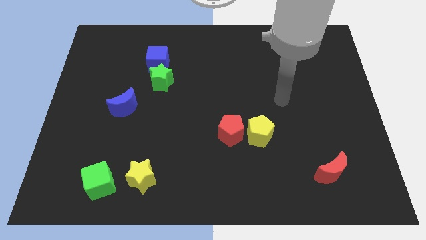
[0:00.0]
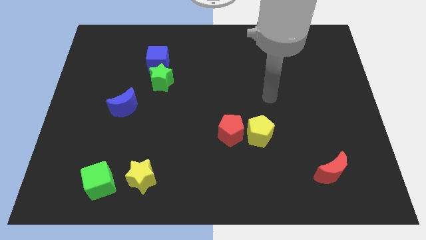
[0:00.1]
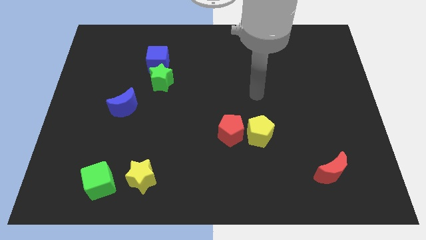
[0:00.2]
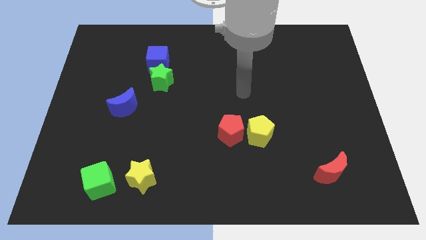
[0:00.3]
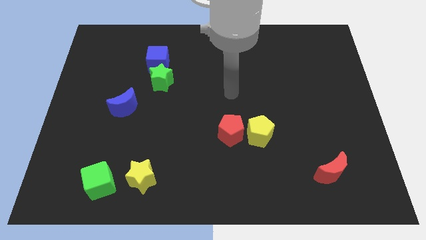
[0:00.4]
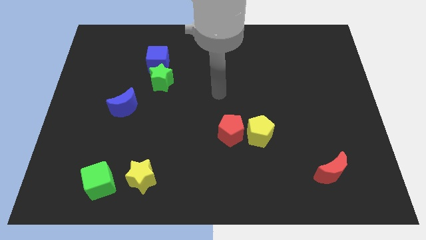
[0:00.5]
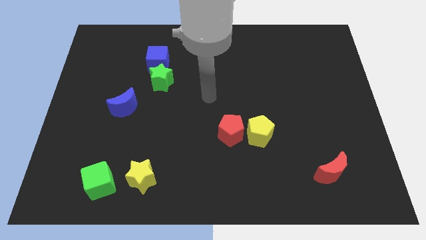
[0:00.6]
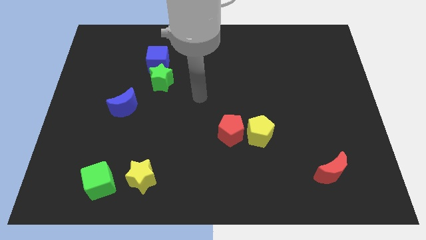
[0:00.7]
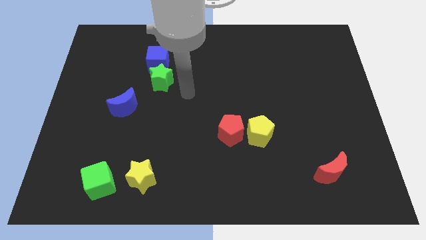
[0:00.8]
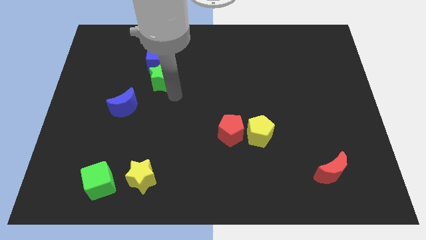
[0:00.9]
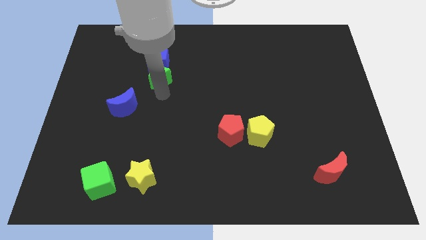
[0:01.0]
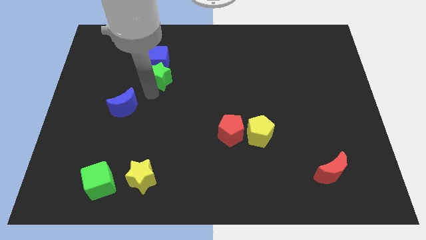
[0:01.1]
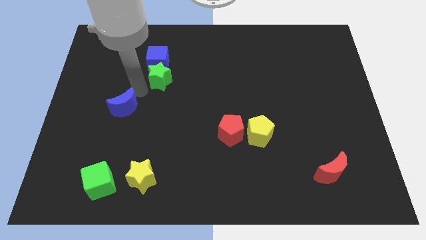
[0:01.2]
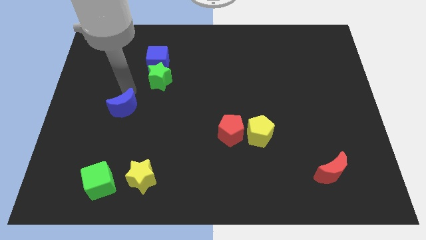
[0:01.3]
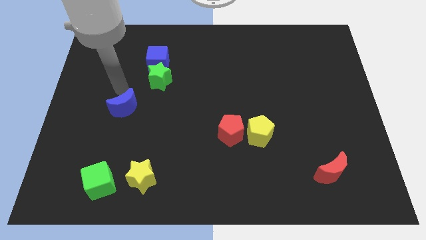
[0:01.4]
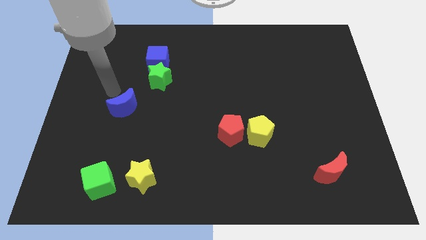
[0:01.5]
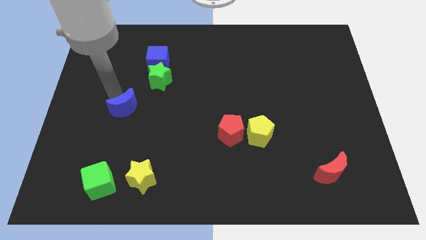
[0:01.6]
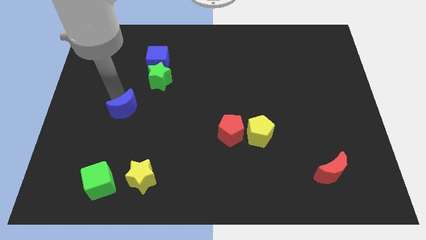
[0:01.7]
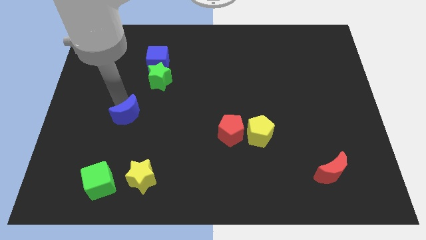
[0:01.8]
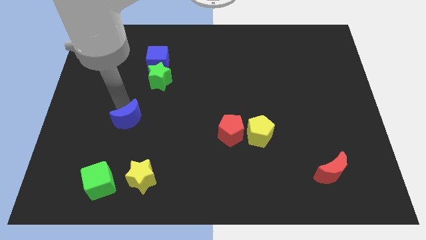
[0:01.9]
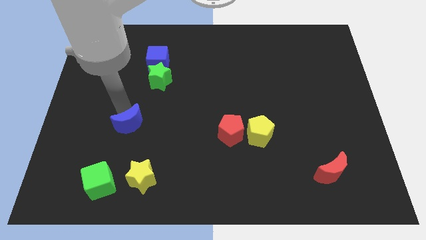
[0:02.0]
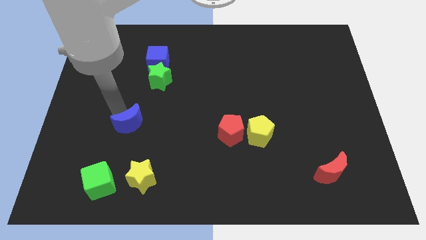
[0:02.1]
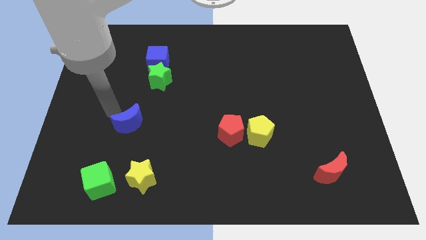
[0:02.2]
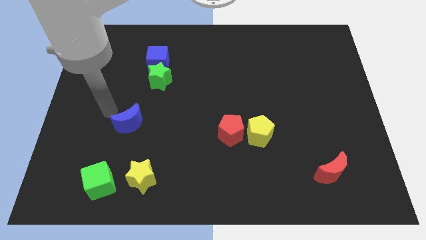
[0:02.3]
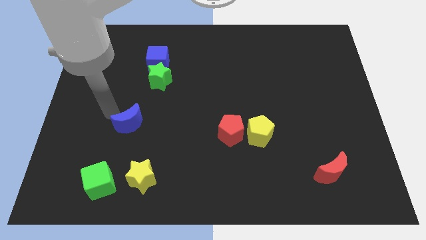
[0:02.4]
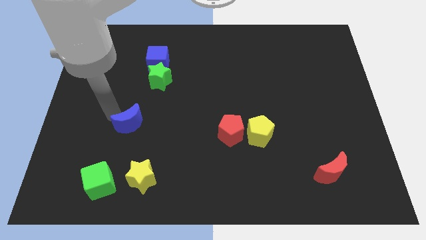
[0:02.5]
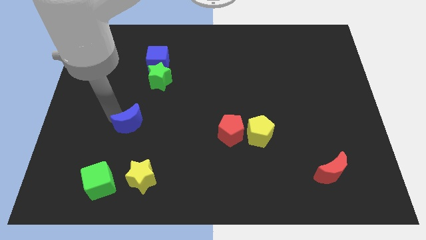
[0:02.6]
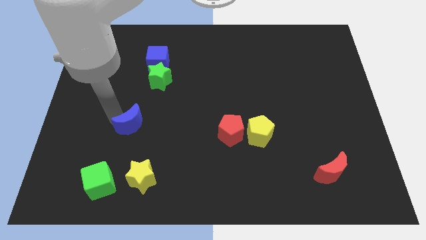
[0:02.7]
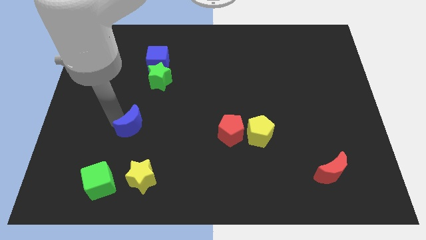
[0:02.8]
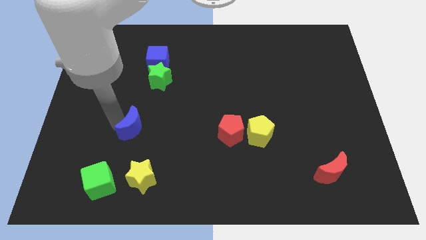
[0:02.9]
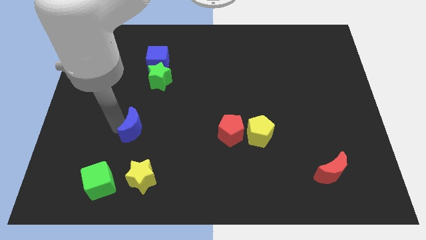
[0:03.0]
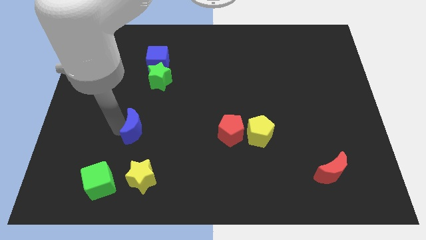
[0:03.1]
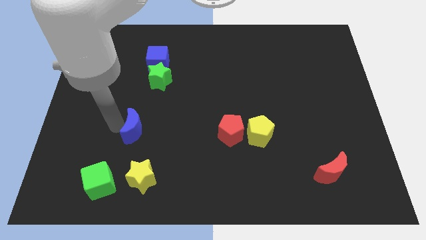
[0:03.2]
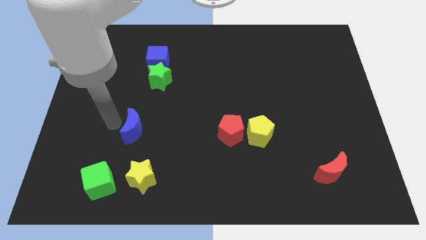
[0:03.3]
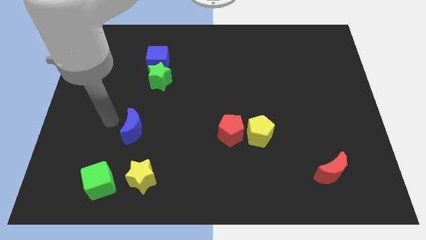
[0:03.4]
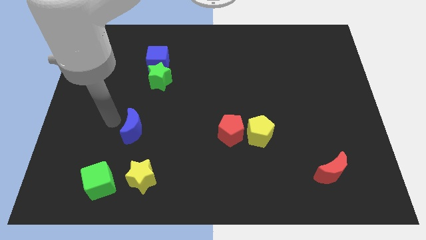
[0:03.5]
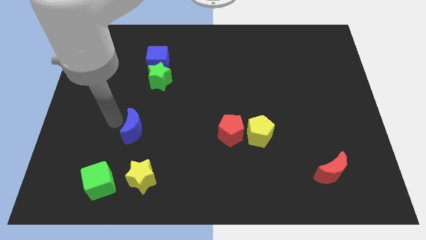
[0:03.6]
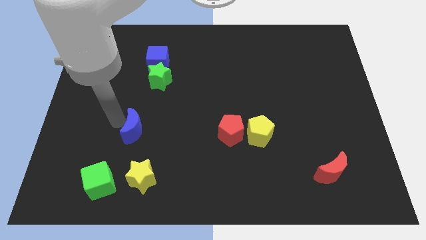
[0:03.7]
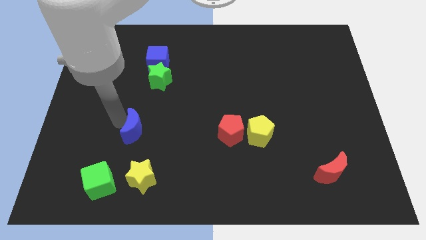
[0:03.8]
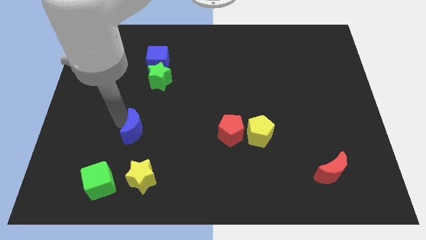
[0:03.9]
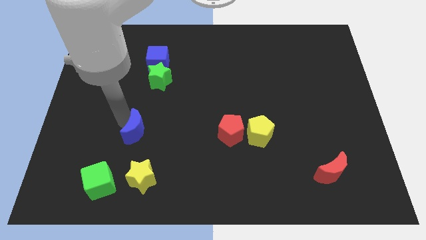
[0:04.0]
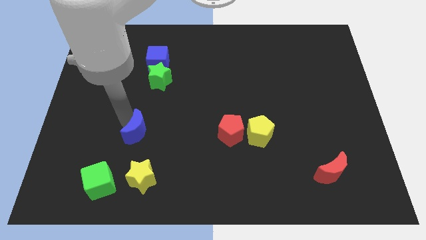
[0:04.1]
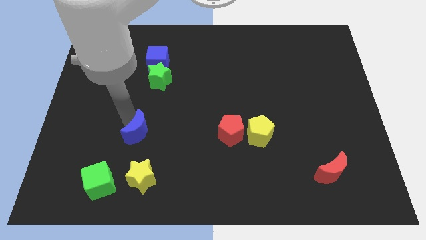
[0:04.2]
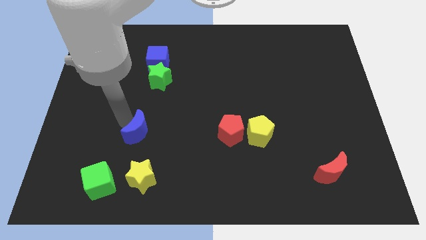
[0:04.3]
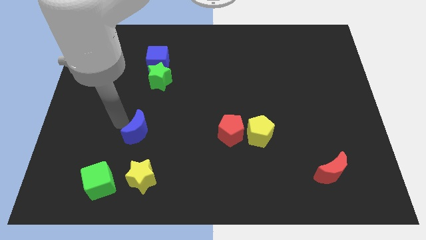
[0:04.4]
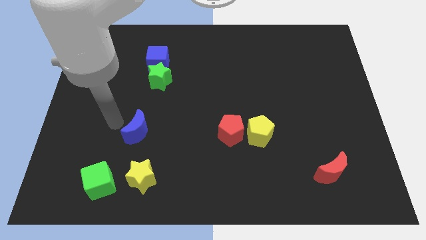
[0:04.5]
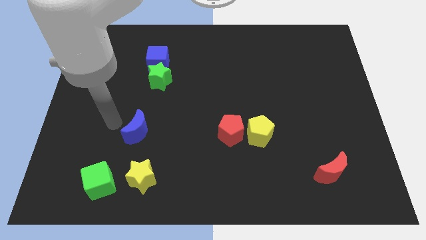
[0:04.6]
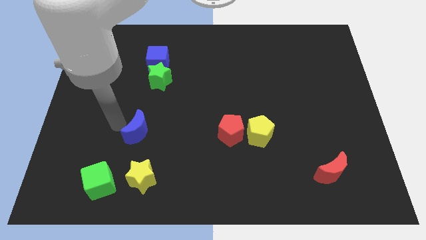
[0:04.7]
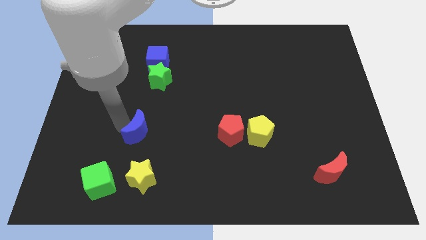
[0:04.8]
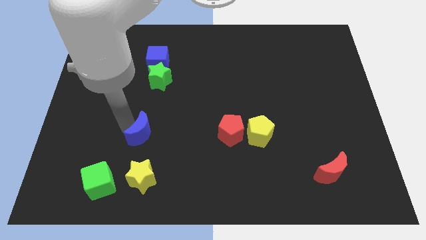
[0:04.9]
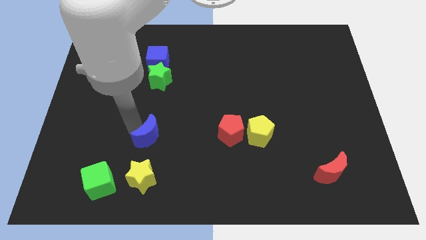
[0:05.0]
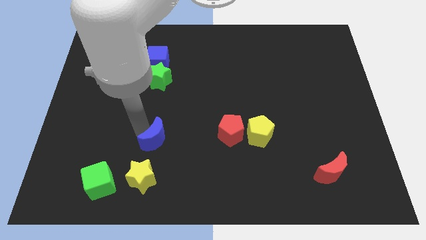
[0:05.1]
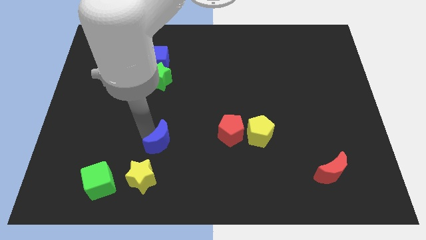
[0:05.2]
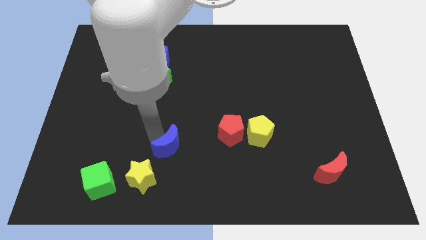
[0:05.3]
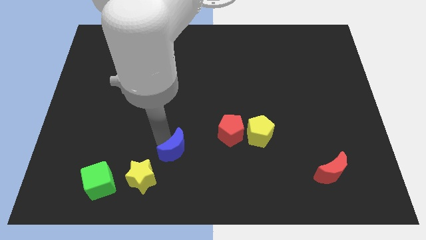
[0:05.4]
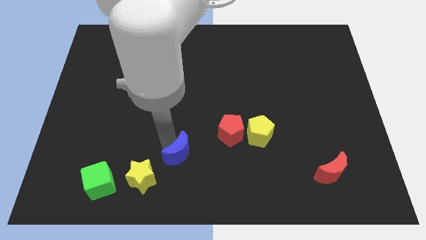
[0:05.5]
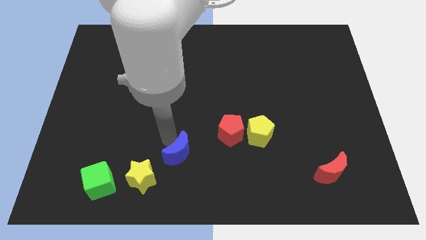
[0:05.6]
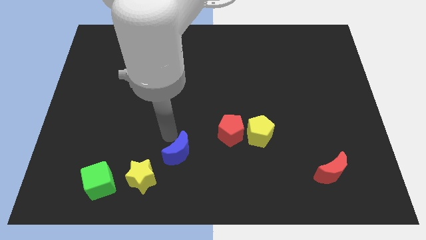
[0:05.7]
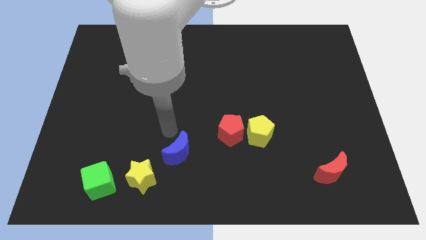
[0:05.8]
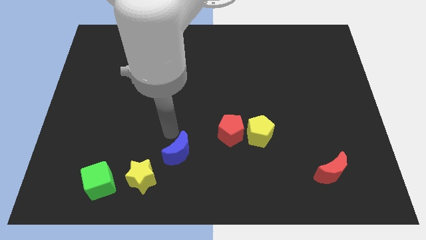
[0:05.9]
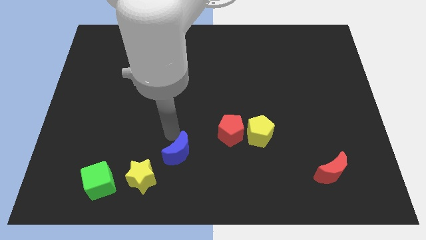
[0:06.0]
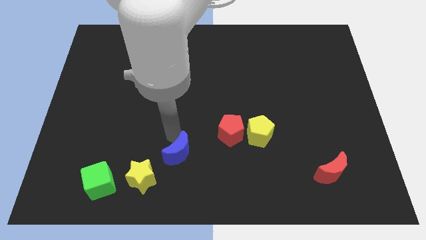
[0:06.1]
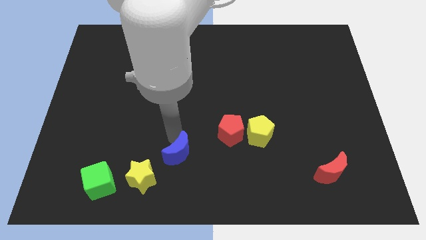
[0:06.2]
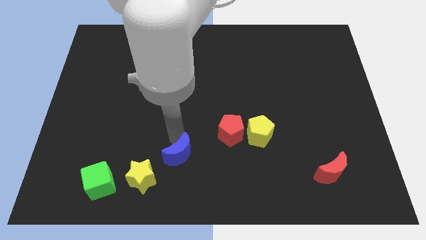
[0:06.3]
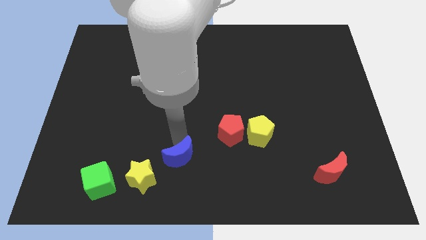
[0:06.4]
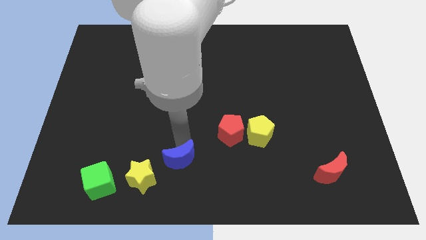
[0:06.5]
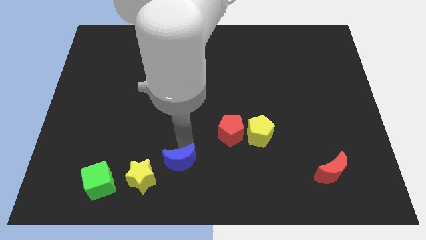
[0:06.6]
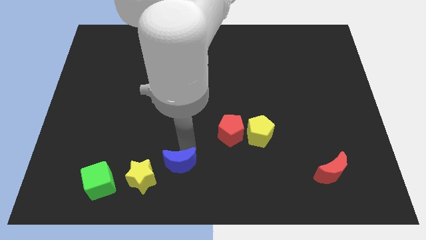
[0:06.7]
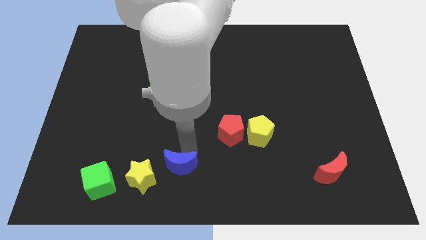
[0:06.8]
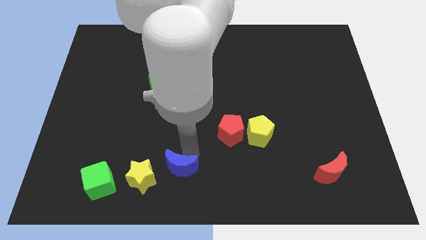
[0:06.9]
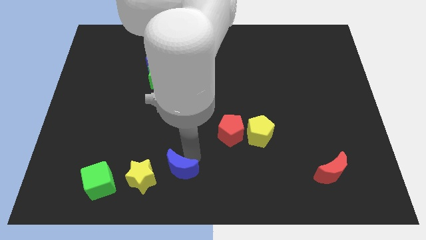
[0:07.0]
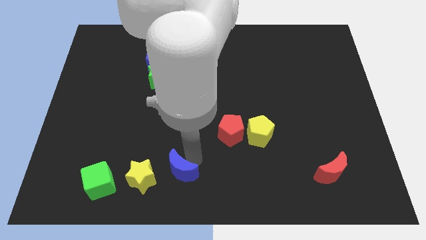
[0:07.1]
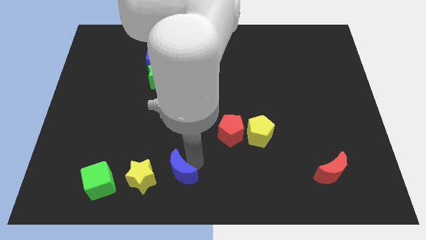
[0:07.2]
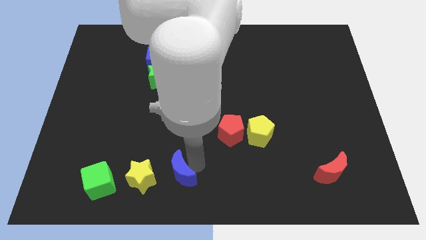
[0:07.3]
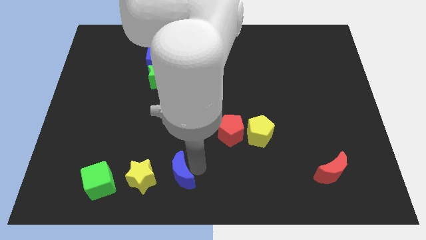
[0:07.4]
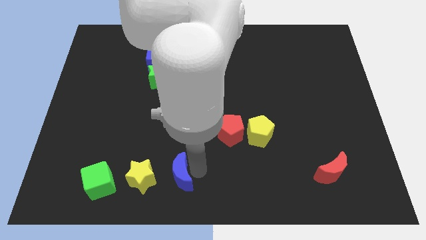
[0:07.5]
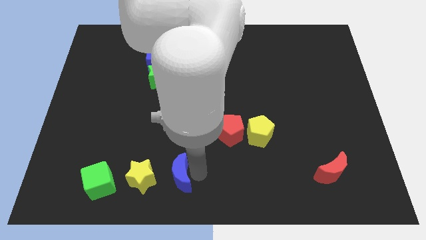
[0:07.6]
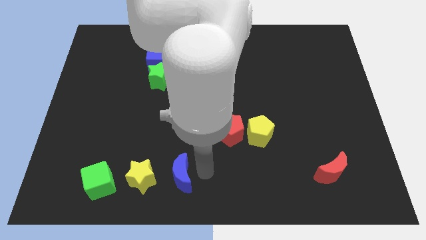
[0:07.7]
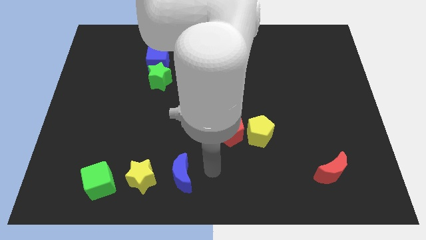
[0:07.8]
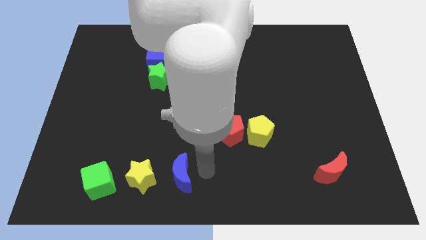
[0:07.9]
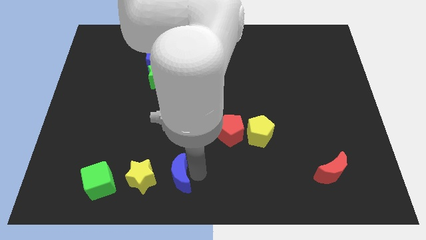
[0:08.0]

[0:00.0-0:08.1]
move the blue moon to the right of the green cube
